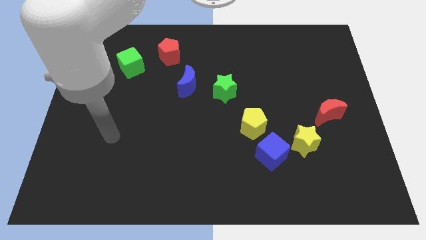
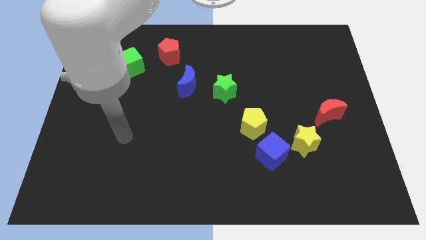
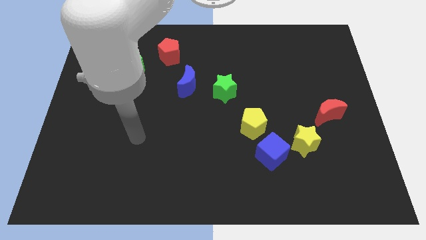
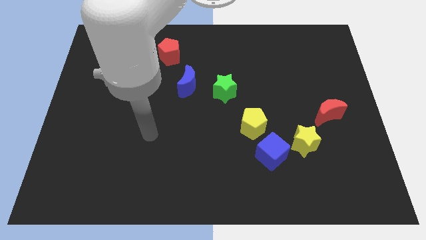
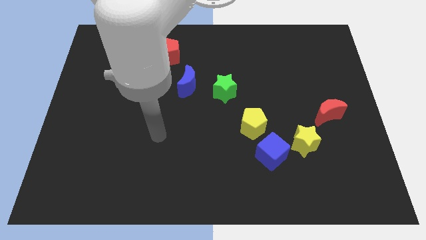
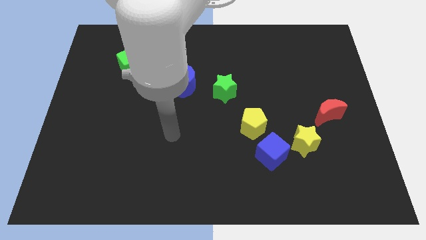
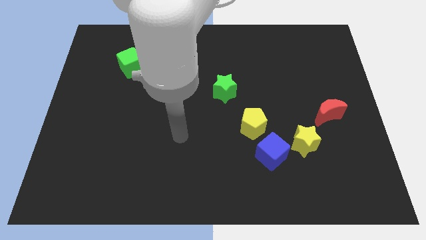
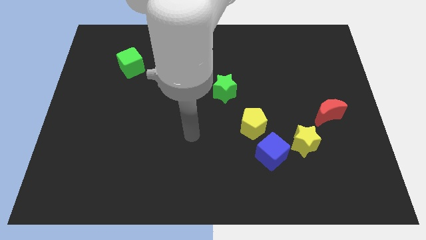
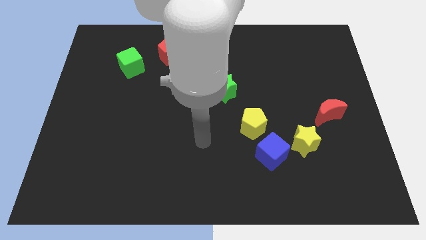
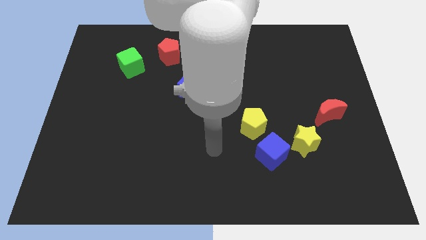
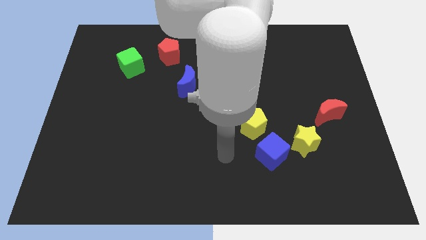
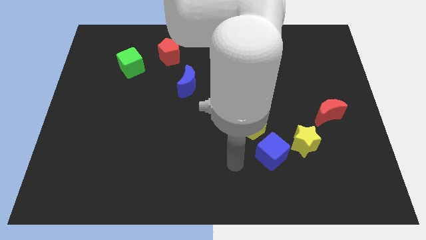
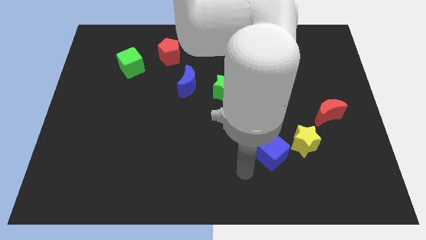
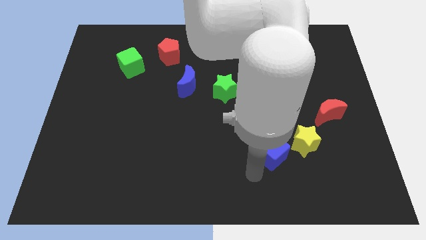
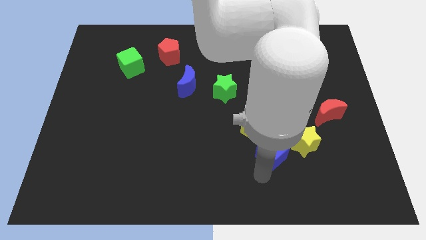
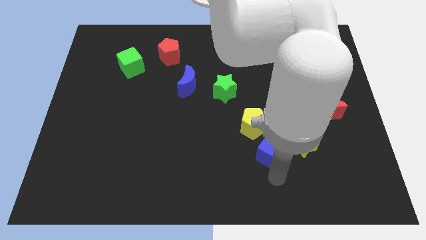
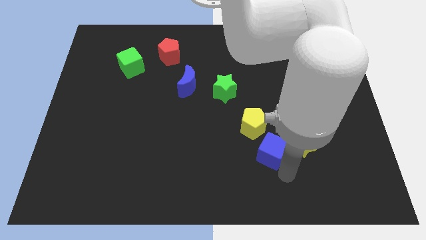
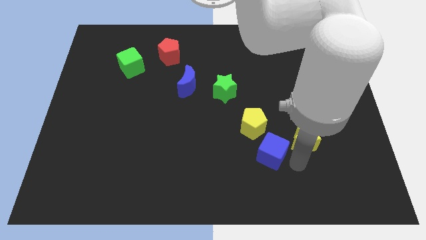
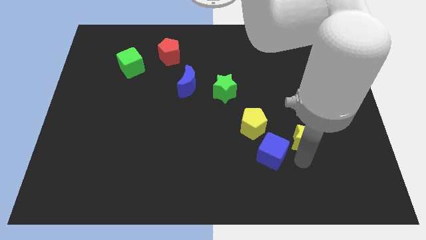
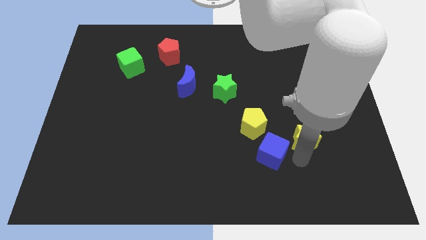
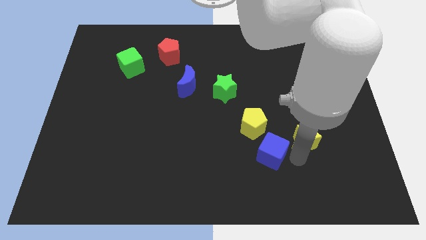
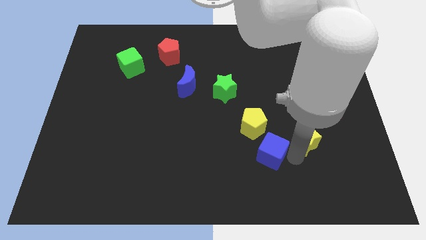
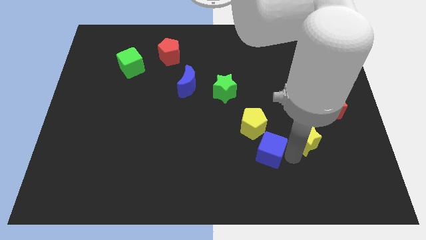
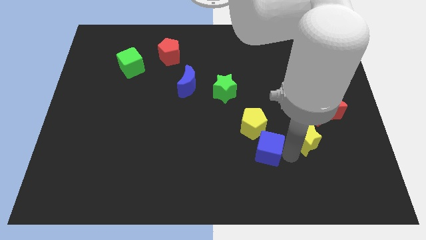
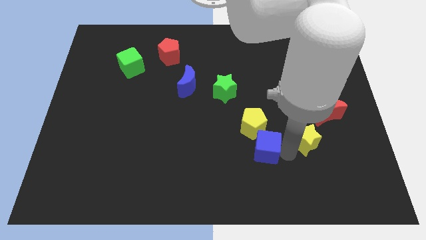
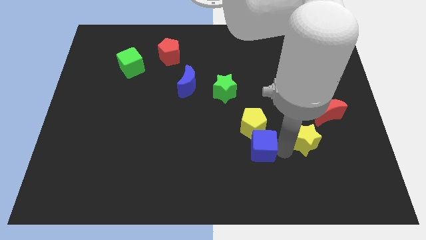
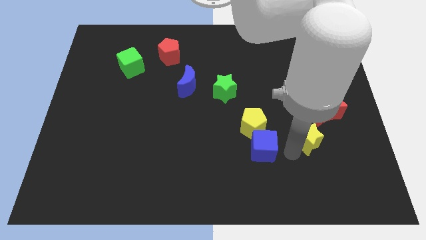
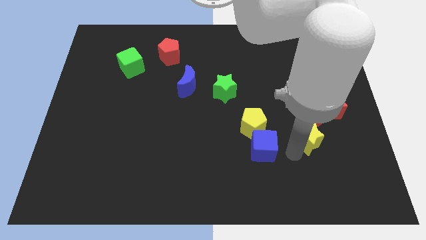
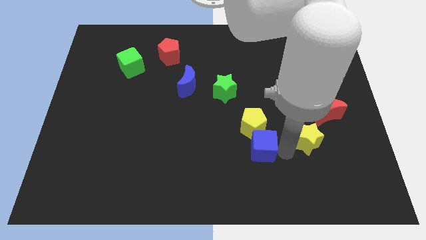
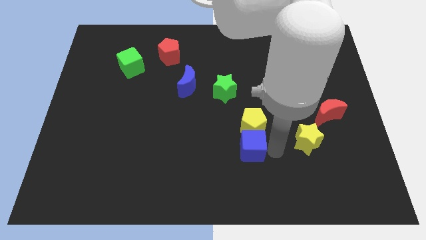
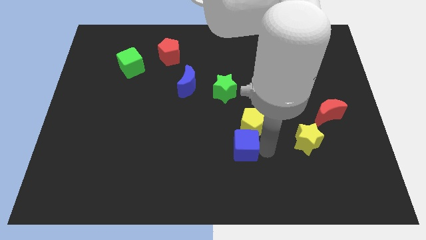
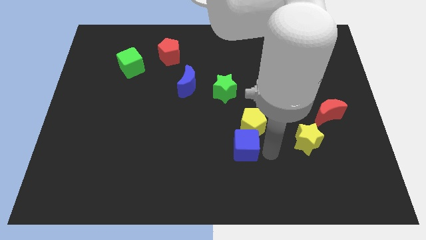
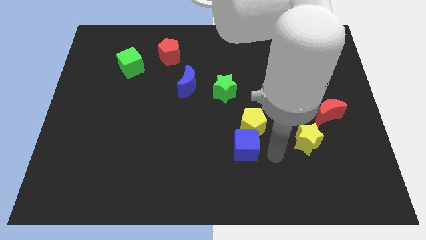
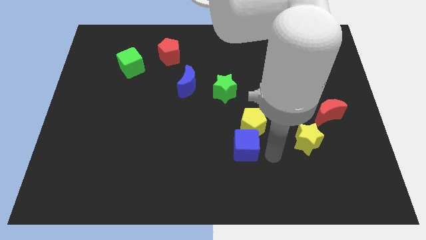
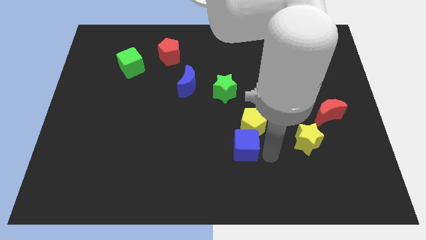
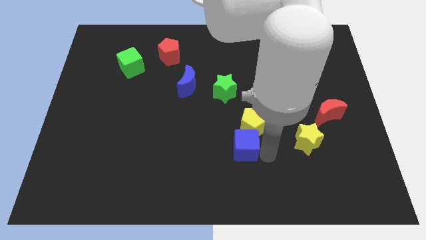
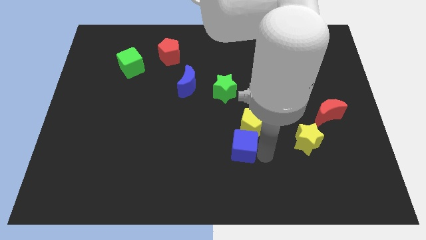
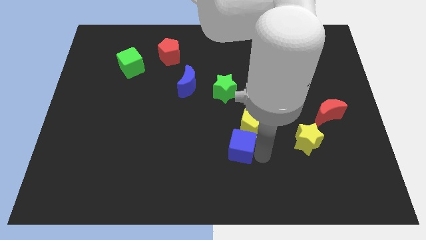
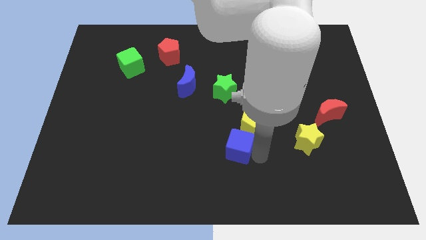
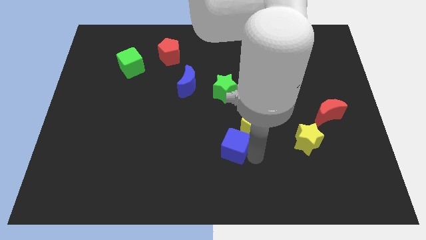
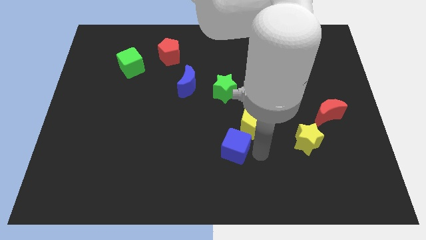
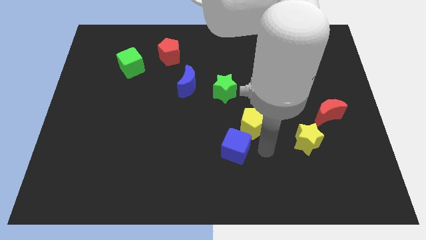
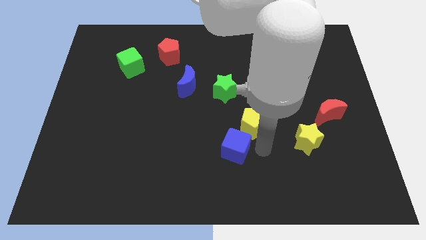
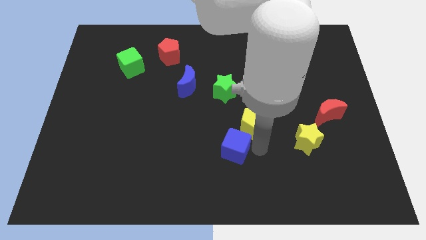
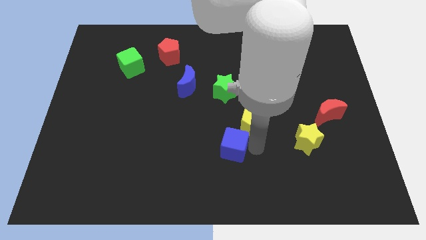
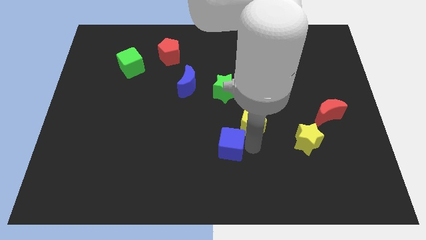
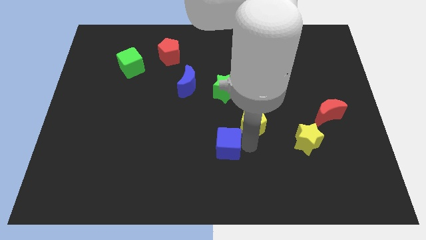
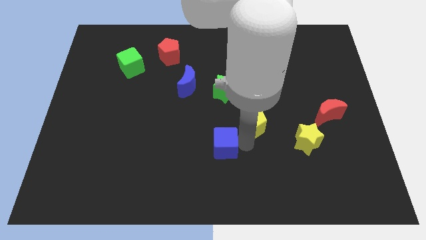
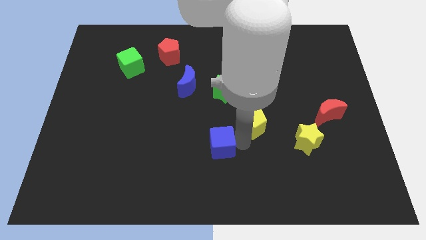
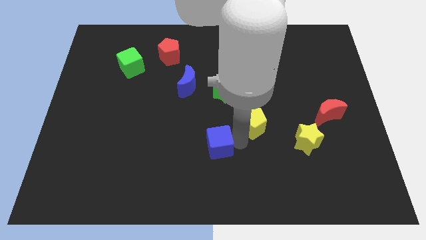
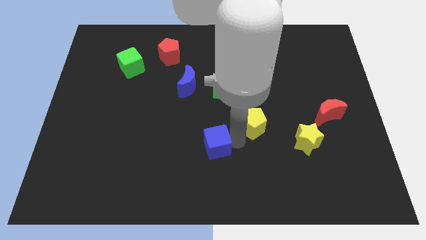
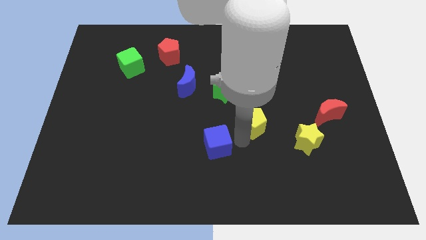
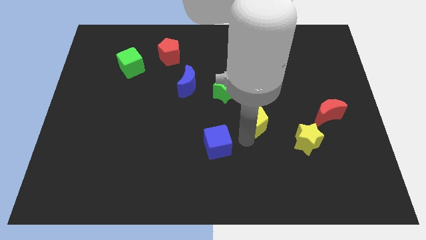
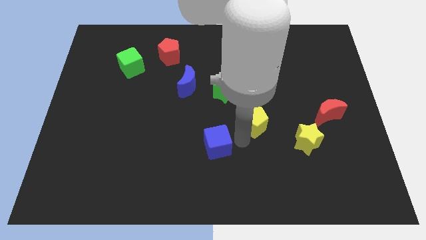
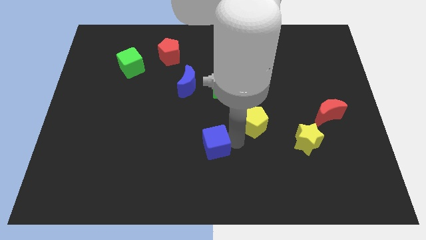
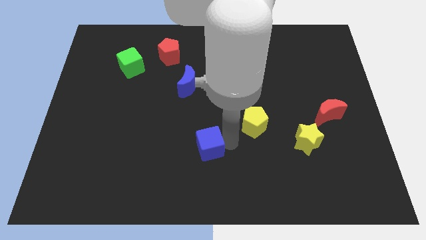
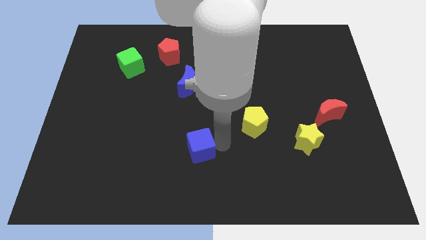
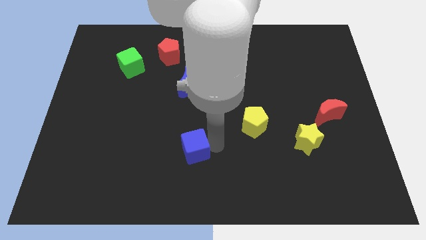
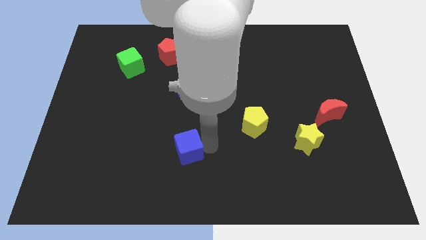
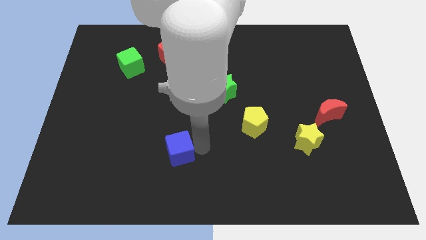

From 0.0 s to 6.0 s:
slide the blue cube to the left

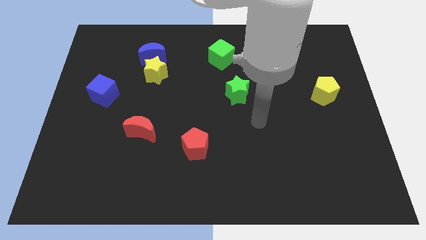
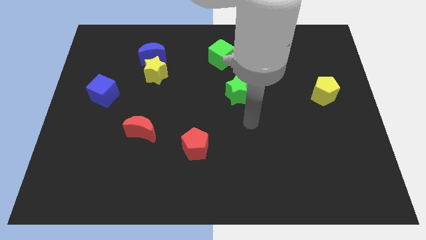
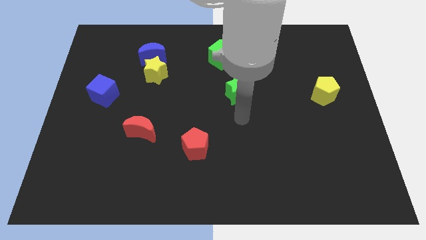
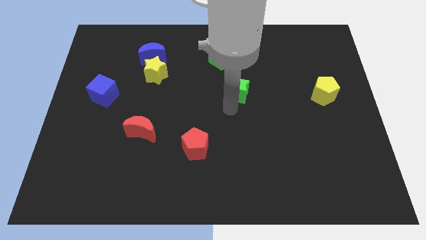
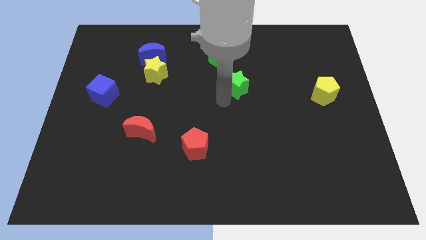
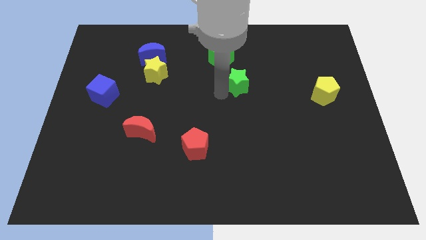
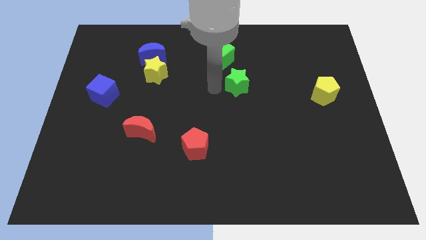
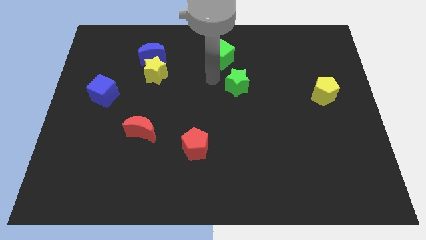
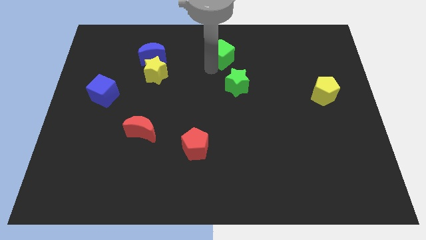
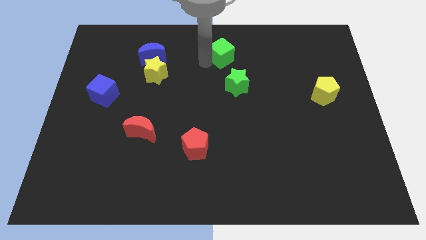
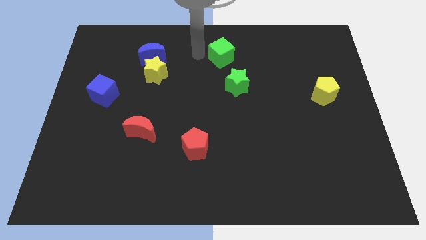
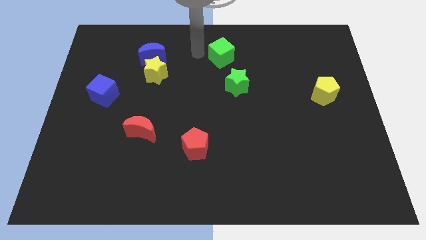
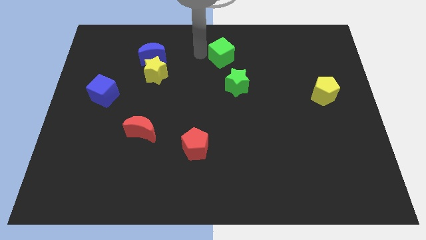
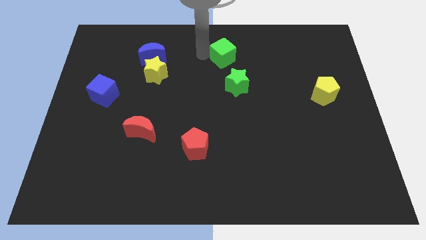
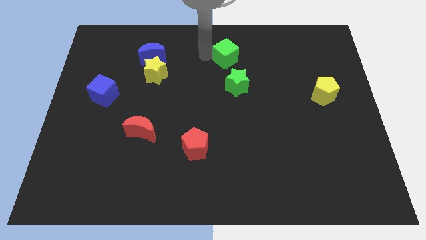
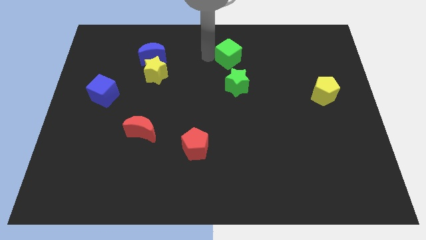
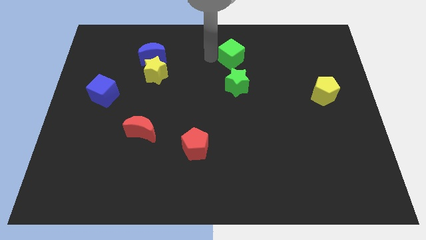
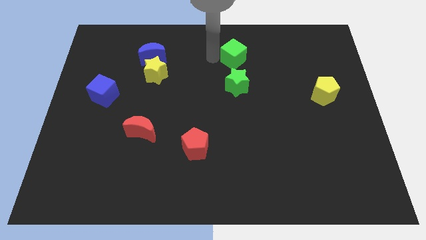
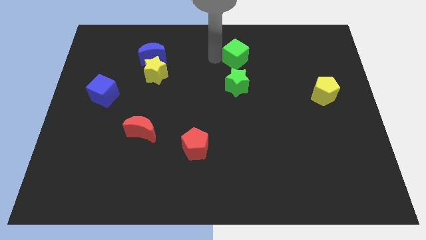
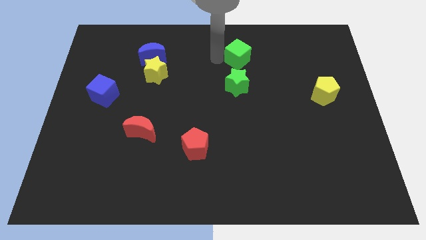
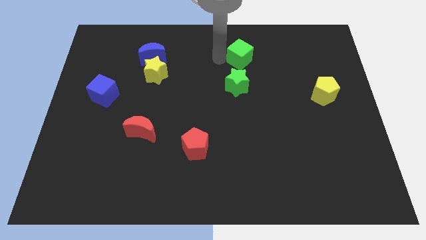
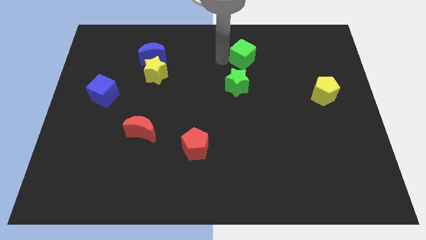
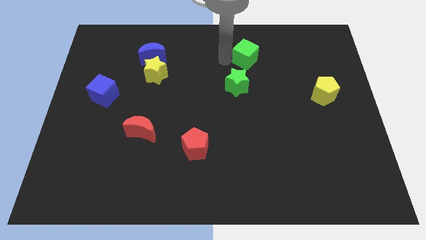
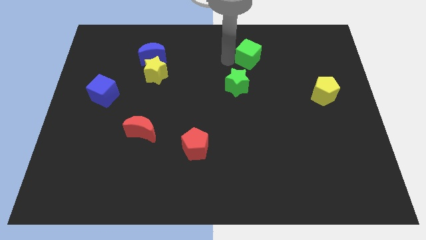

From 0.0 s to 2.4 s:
slide the green cube a bit to the right
